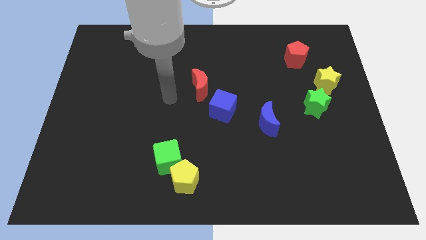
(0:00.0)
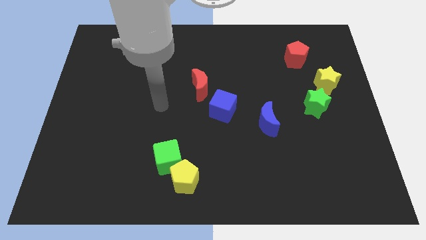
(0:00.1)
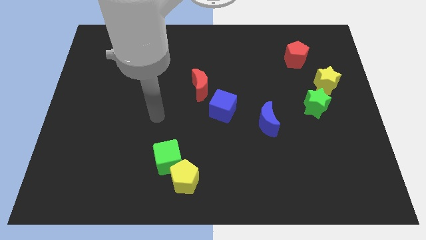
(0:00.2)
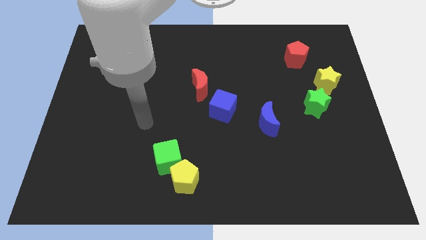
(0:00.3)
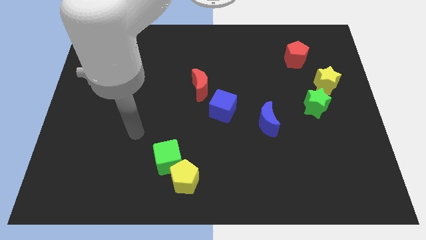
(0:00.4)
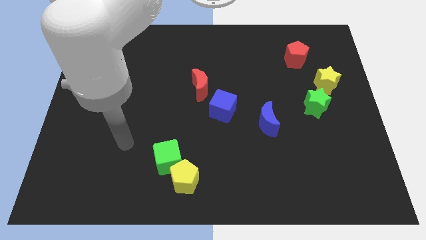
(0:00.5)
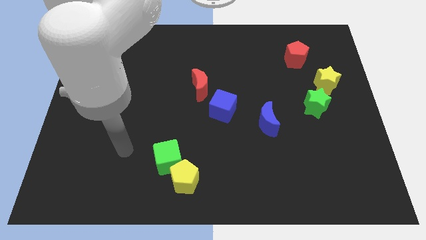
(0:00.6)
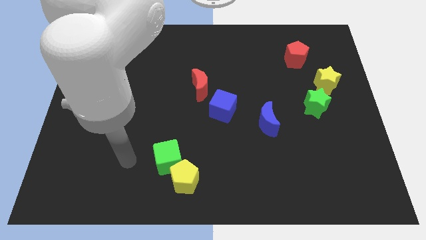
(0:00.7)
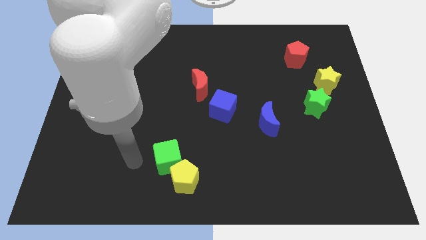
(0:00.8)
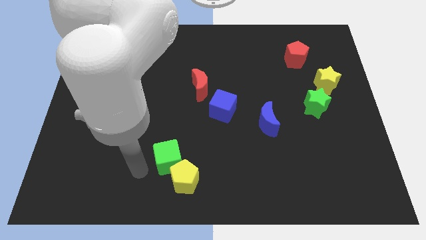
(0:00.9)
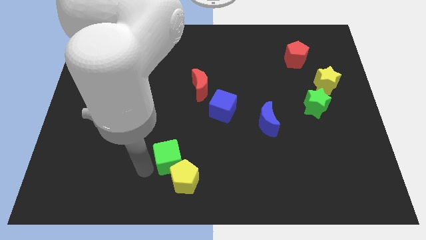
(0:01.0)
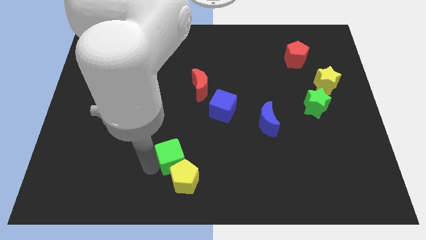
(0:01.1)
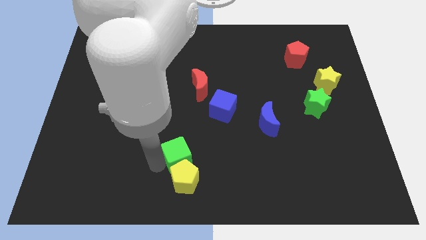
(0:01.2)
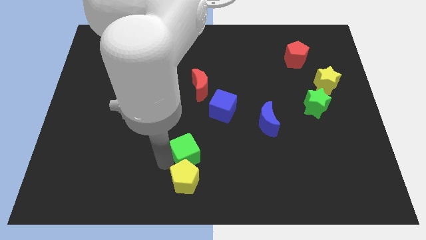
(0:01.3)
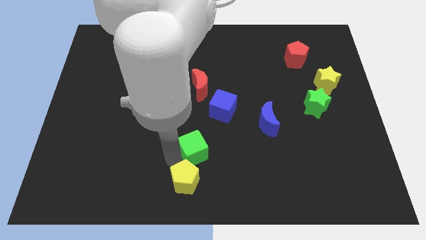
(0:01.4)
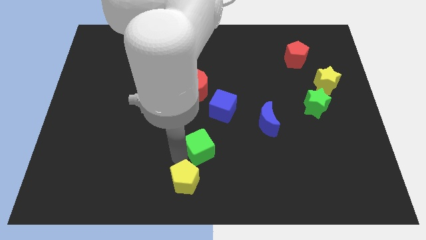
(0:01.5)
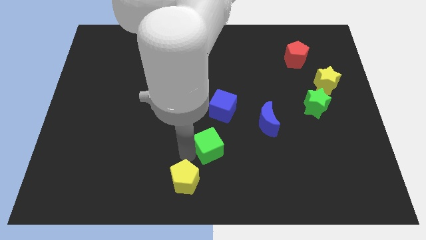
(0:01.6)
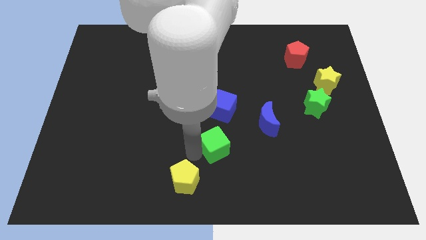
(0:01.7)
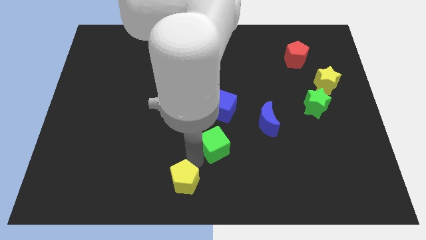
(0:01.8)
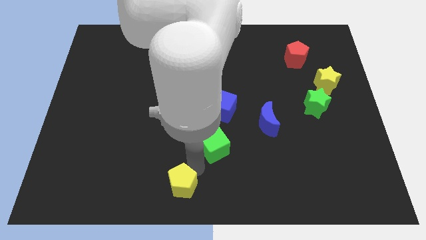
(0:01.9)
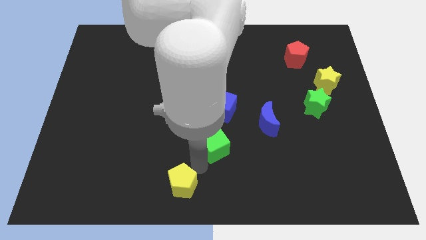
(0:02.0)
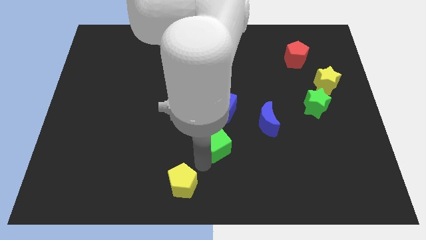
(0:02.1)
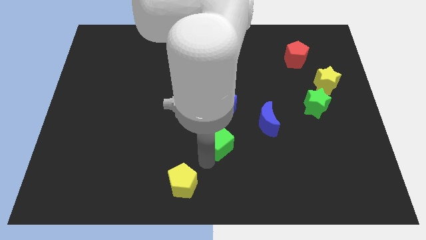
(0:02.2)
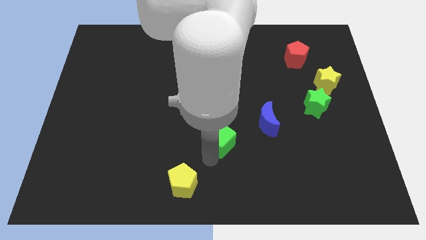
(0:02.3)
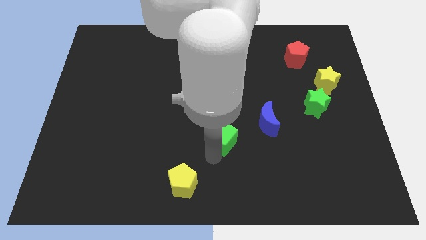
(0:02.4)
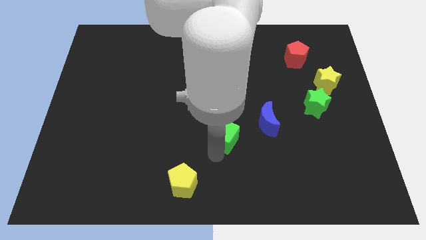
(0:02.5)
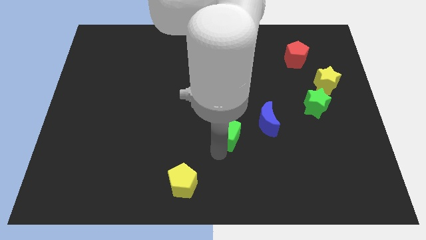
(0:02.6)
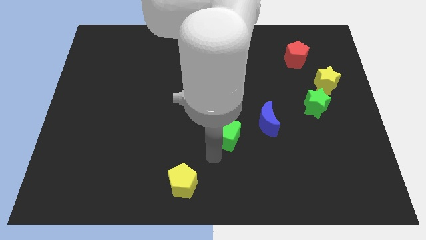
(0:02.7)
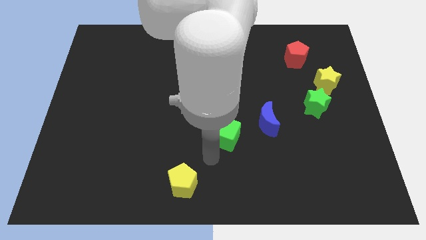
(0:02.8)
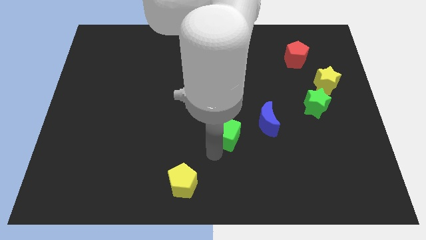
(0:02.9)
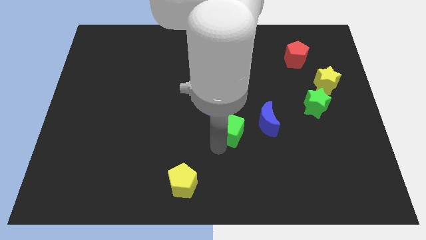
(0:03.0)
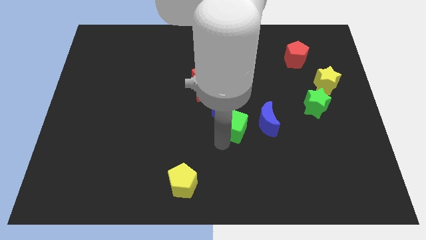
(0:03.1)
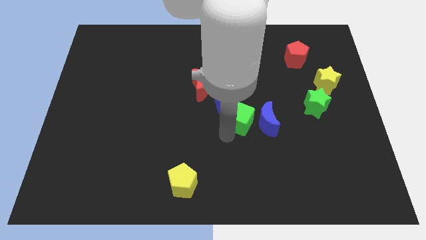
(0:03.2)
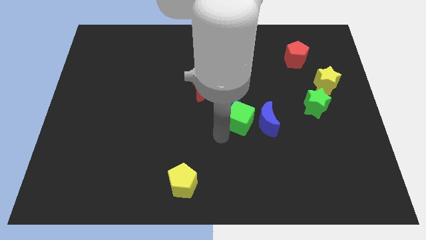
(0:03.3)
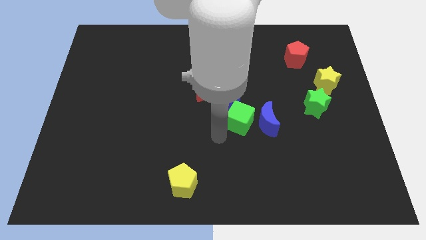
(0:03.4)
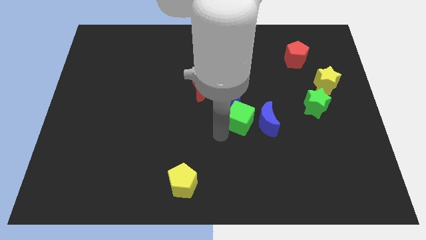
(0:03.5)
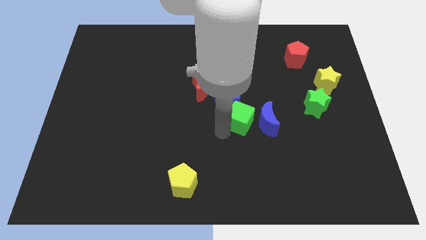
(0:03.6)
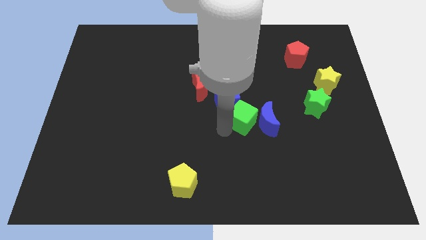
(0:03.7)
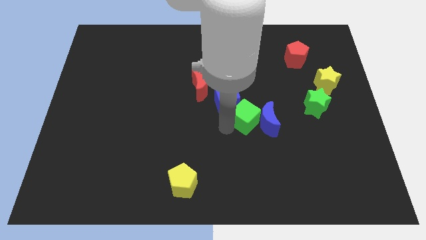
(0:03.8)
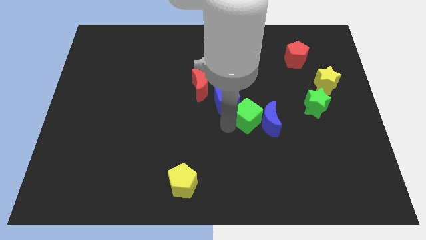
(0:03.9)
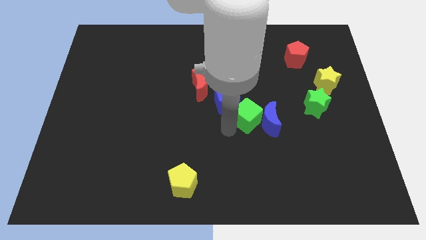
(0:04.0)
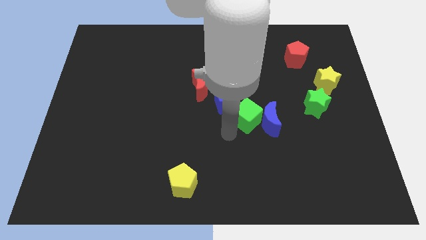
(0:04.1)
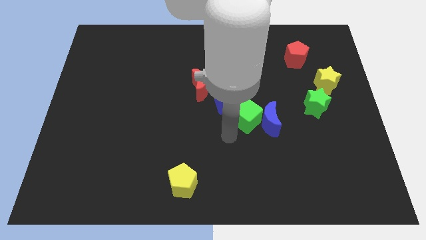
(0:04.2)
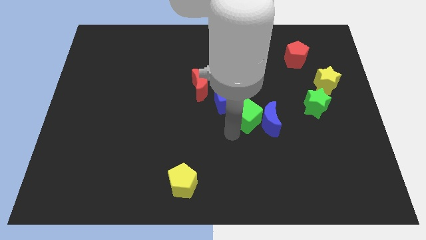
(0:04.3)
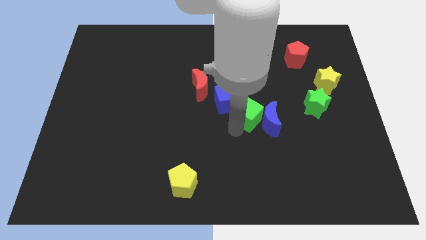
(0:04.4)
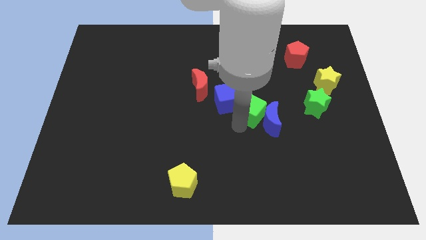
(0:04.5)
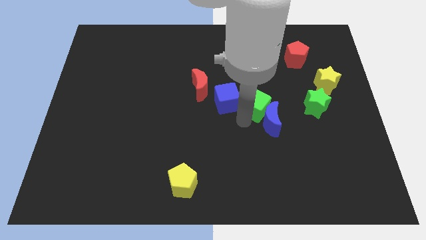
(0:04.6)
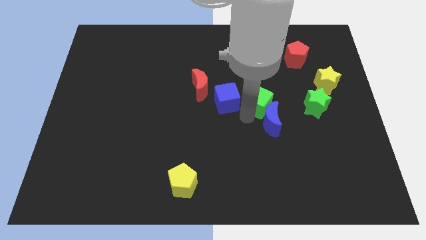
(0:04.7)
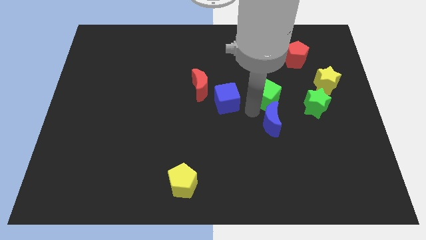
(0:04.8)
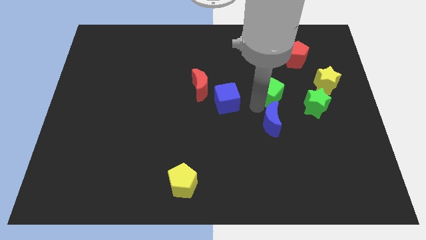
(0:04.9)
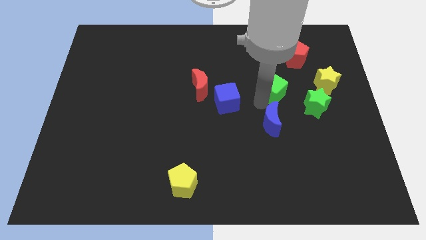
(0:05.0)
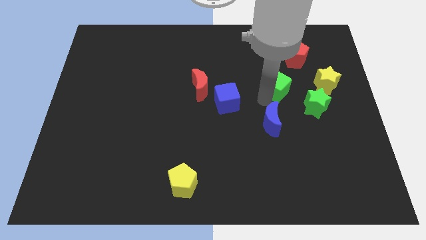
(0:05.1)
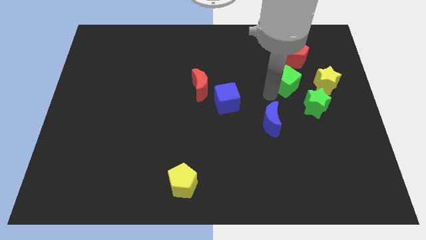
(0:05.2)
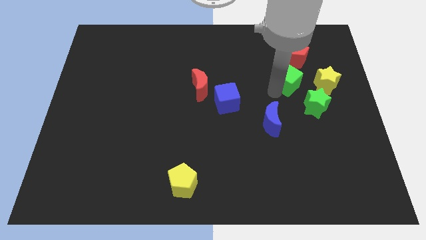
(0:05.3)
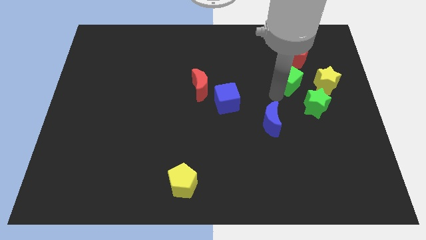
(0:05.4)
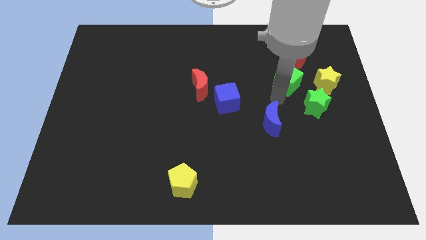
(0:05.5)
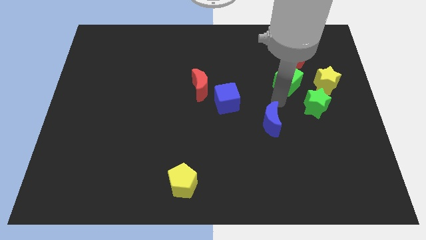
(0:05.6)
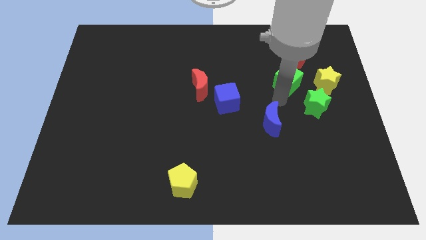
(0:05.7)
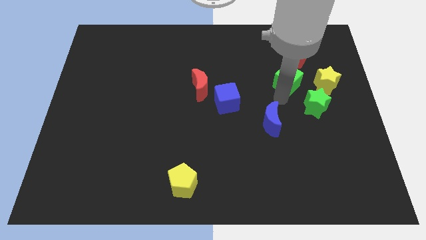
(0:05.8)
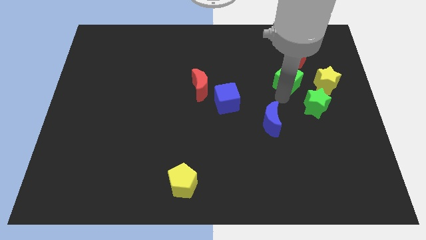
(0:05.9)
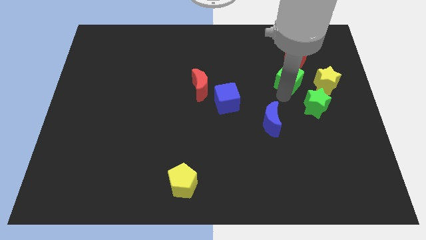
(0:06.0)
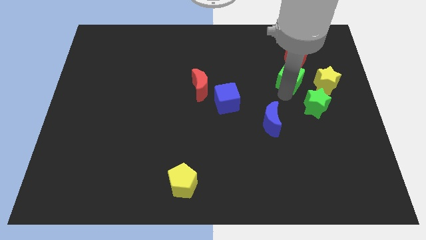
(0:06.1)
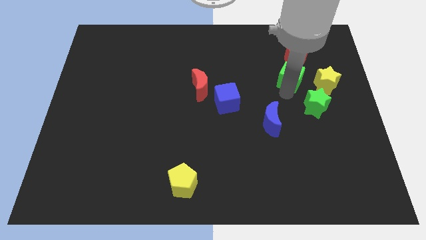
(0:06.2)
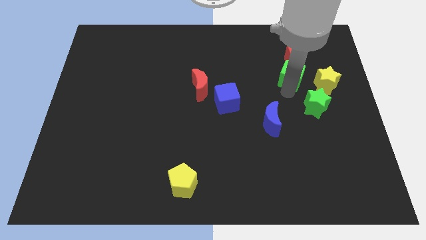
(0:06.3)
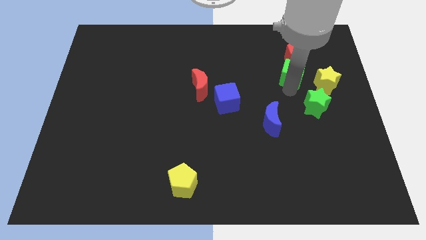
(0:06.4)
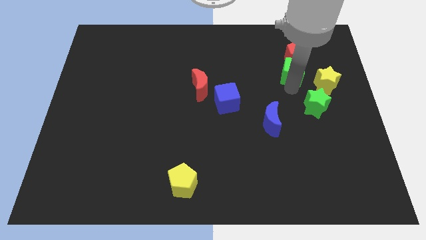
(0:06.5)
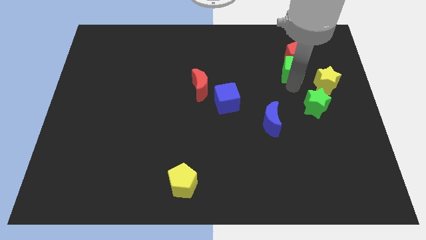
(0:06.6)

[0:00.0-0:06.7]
put the green cube diagonally down and to the right of the red pentagon

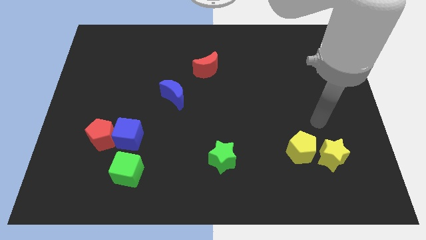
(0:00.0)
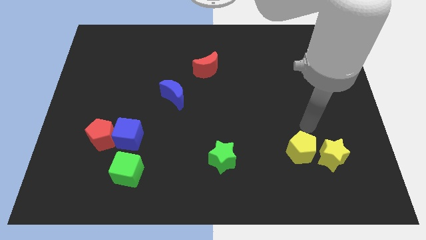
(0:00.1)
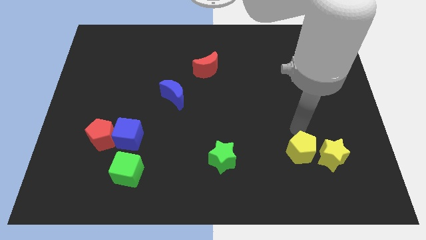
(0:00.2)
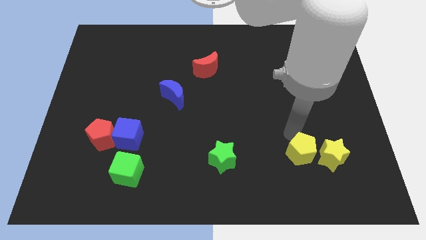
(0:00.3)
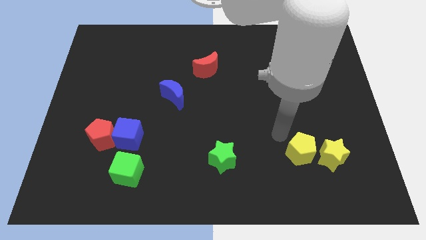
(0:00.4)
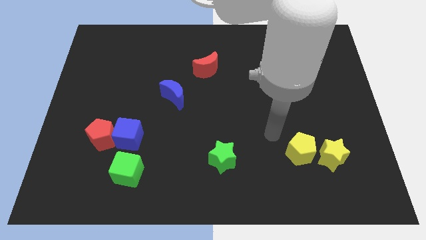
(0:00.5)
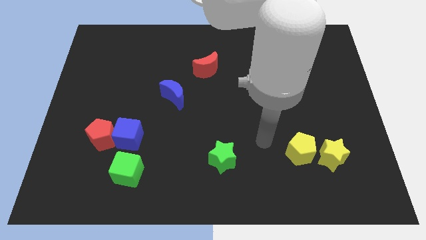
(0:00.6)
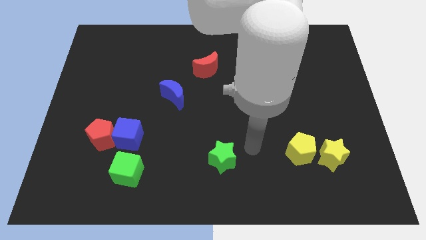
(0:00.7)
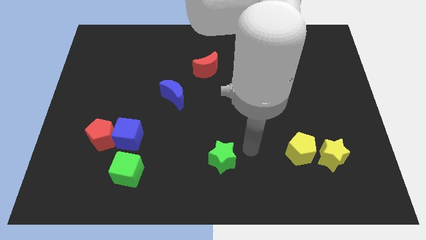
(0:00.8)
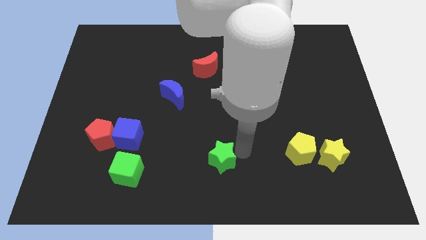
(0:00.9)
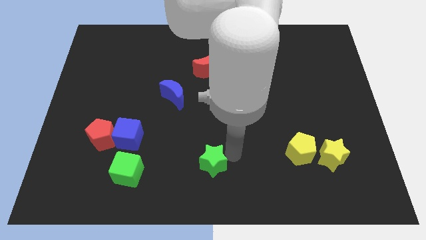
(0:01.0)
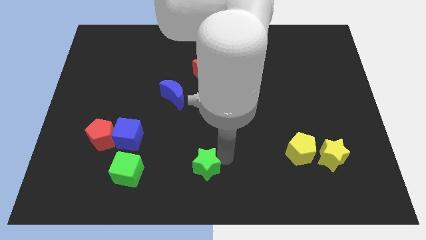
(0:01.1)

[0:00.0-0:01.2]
push the green star to the right side of the green cube
